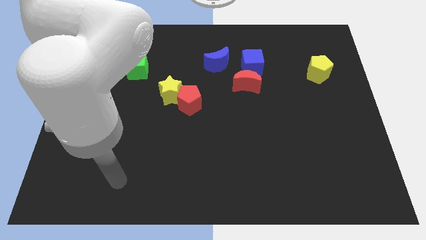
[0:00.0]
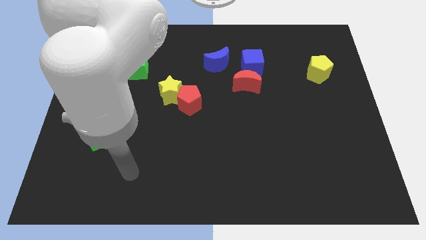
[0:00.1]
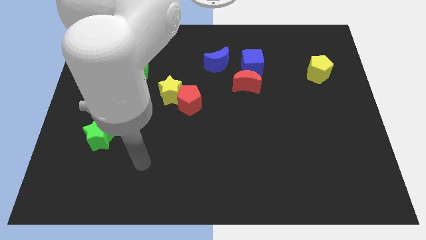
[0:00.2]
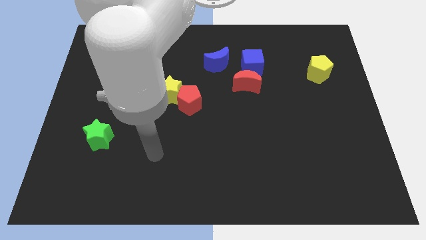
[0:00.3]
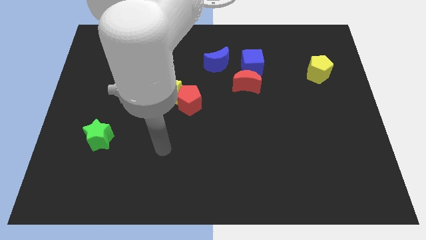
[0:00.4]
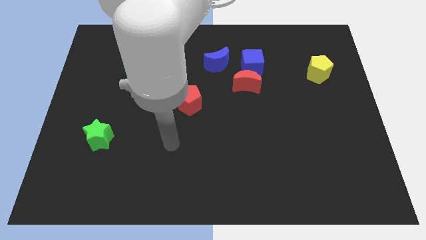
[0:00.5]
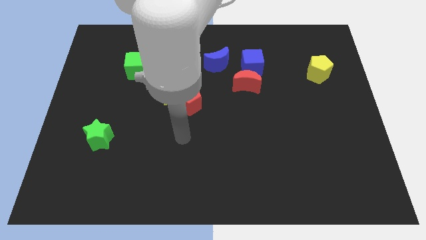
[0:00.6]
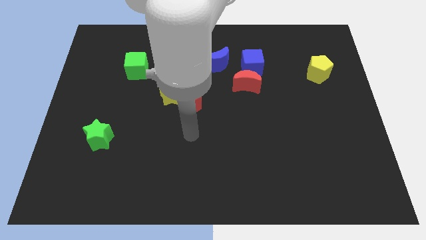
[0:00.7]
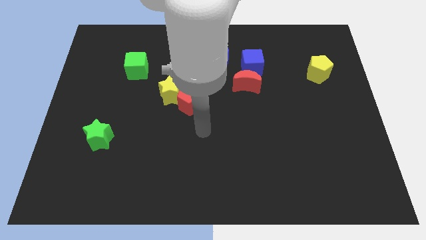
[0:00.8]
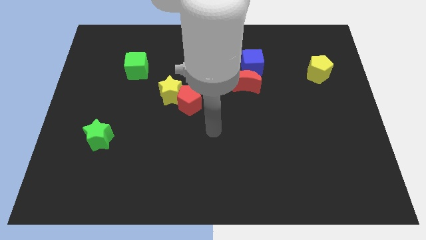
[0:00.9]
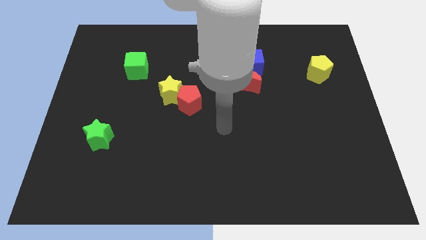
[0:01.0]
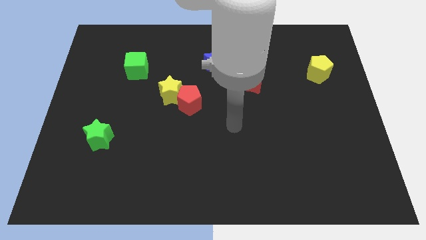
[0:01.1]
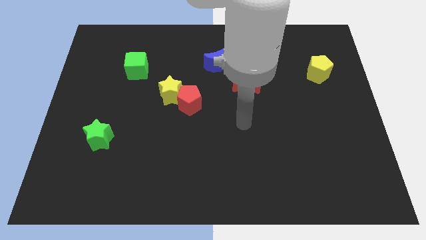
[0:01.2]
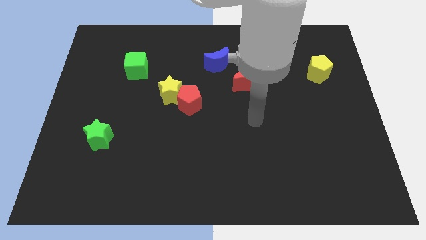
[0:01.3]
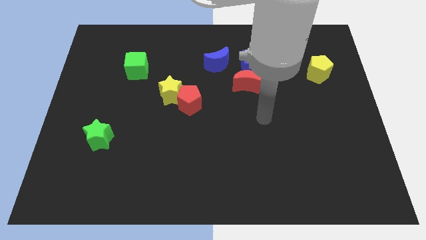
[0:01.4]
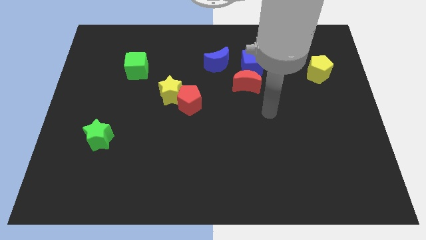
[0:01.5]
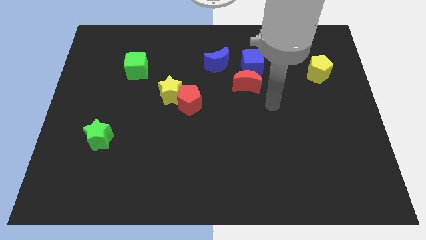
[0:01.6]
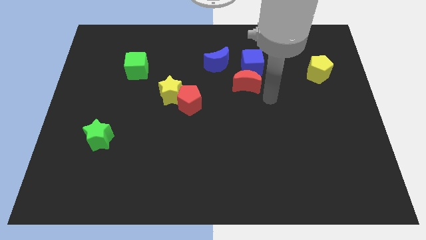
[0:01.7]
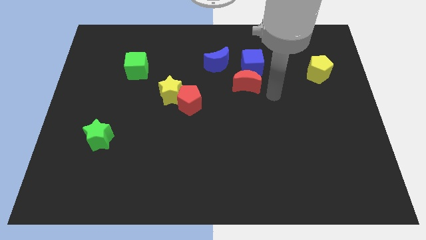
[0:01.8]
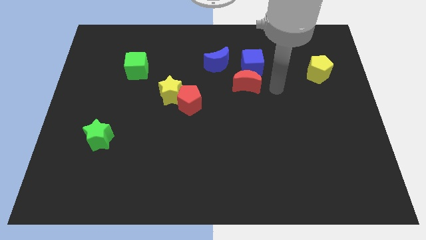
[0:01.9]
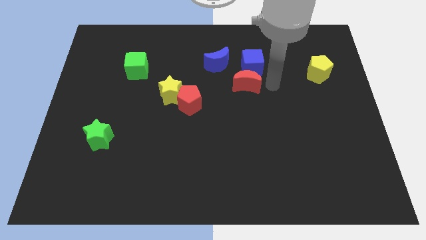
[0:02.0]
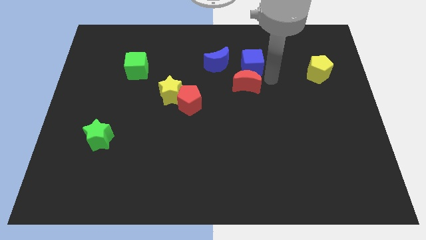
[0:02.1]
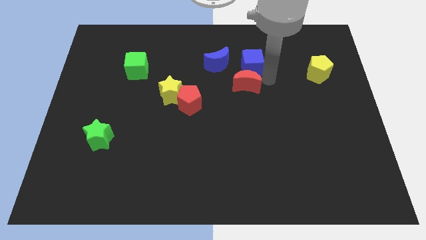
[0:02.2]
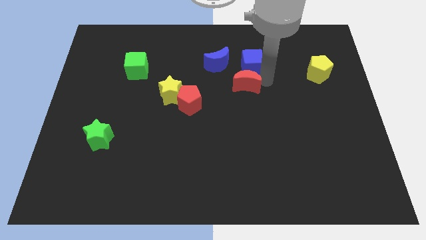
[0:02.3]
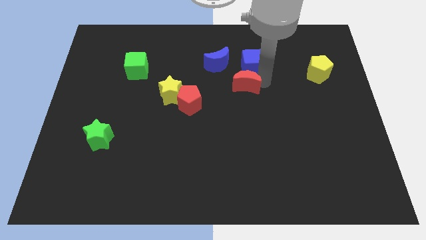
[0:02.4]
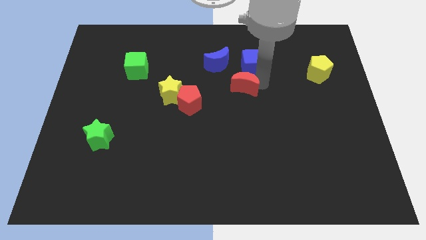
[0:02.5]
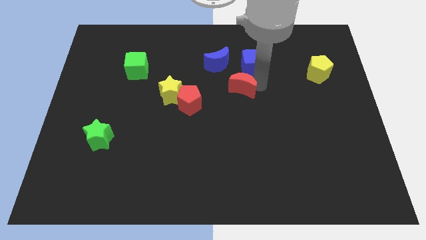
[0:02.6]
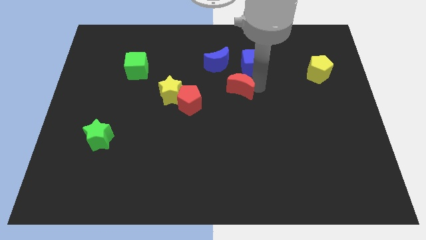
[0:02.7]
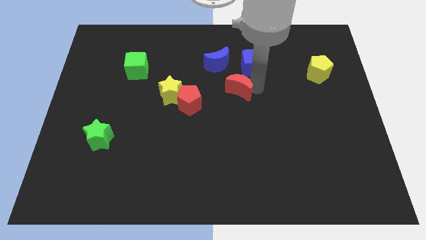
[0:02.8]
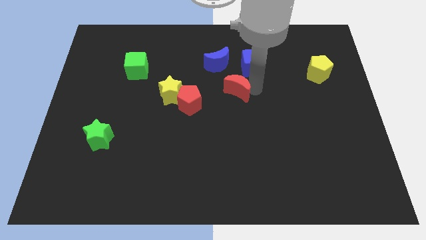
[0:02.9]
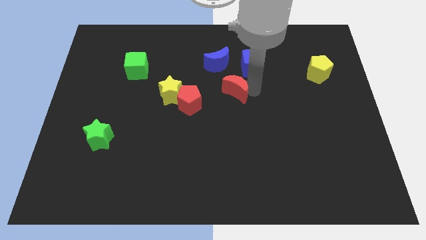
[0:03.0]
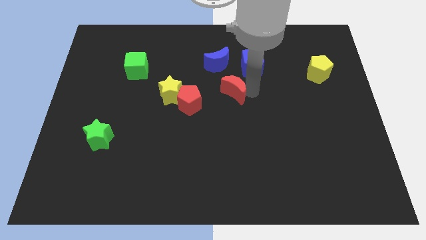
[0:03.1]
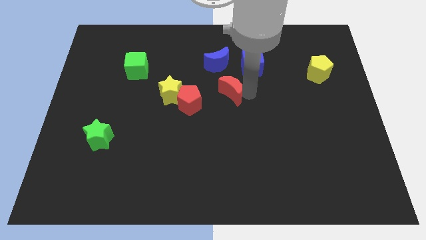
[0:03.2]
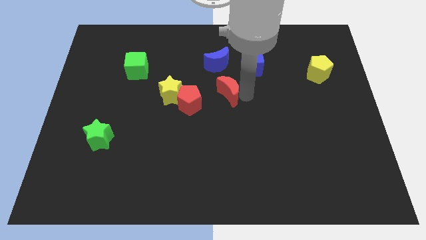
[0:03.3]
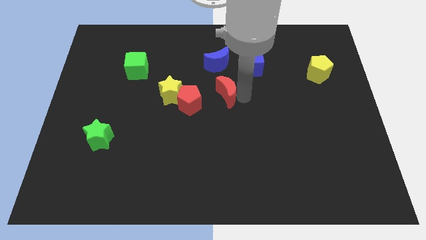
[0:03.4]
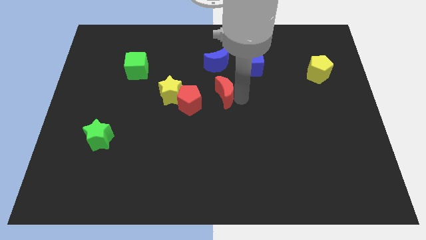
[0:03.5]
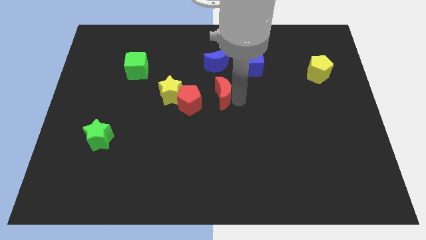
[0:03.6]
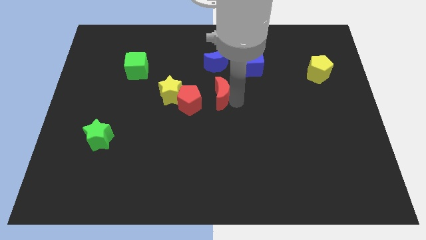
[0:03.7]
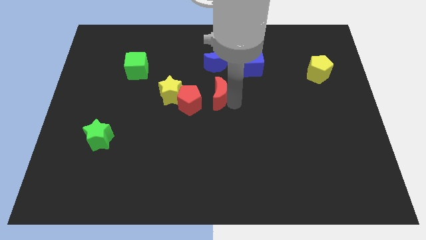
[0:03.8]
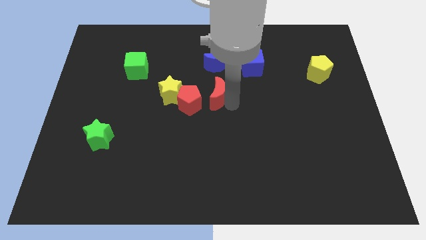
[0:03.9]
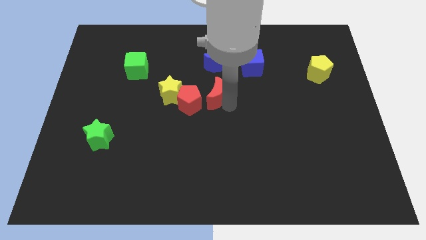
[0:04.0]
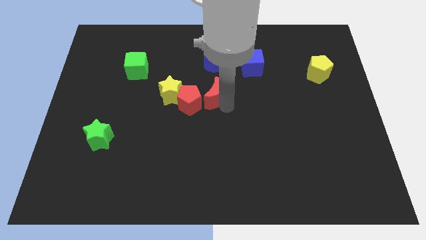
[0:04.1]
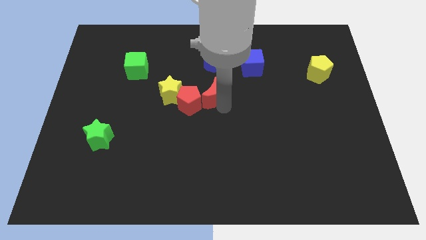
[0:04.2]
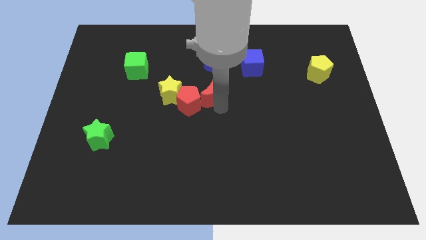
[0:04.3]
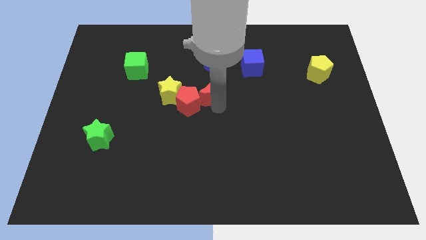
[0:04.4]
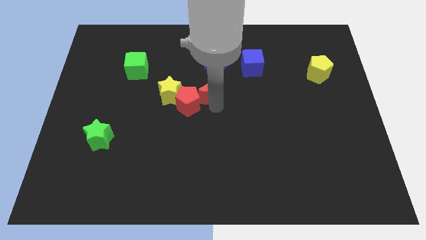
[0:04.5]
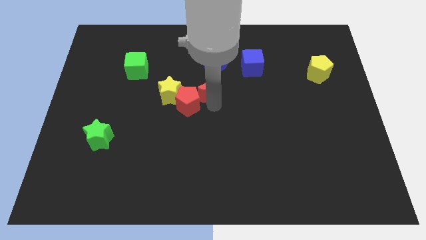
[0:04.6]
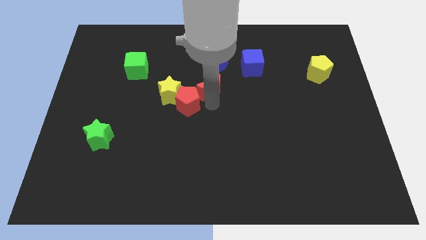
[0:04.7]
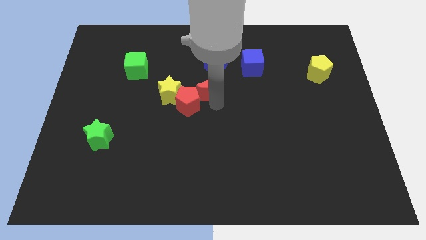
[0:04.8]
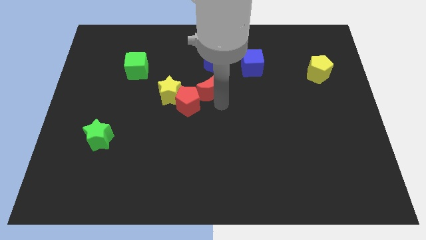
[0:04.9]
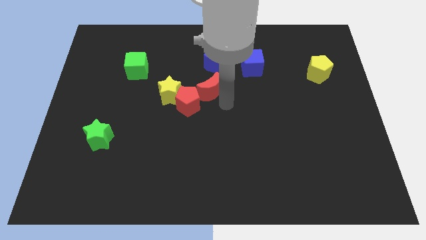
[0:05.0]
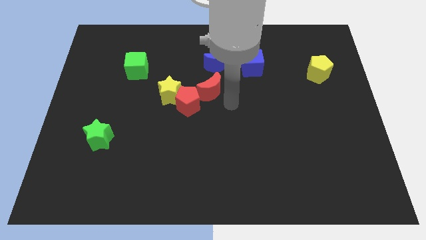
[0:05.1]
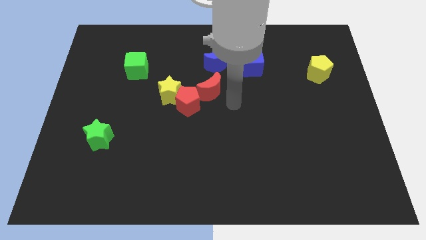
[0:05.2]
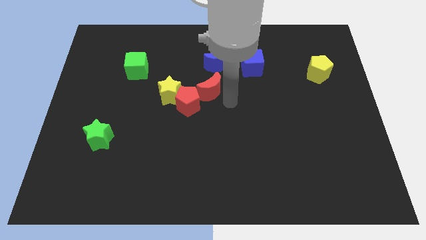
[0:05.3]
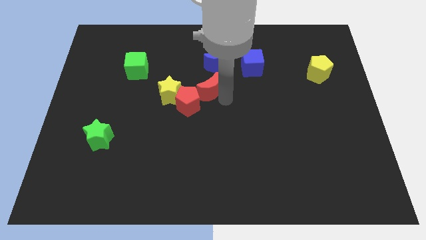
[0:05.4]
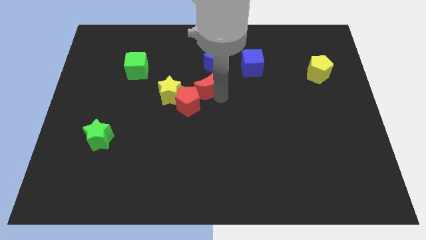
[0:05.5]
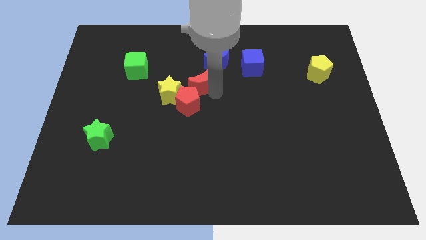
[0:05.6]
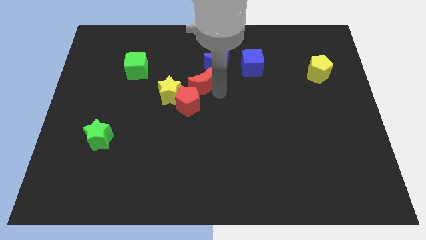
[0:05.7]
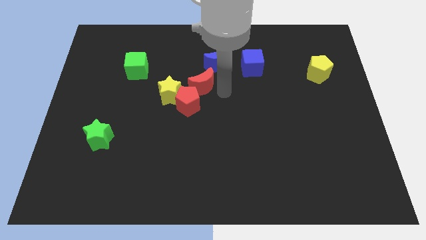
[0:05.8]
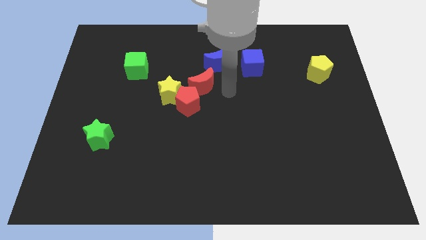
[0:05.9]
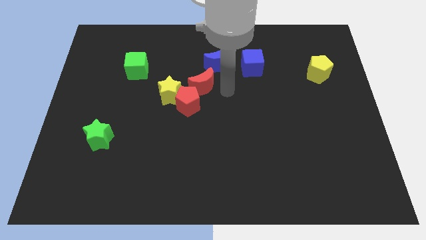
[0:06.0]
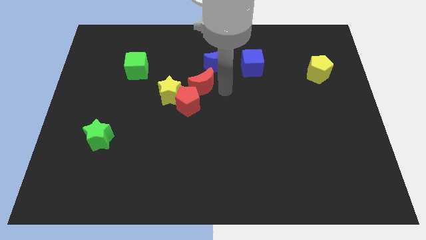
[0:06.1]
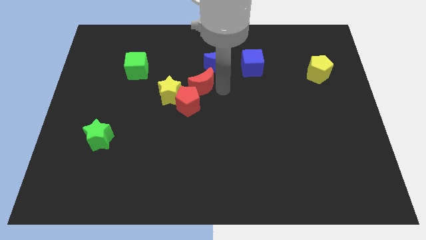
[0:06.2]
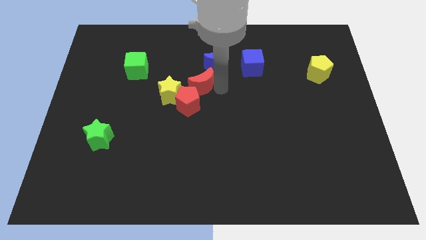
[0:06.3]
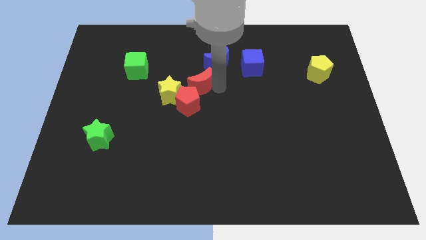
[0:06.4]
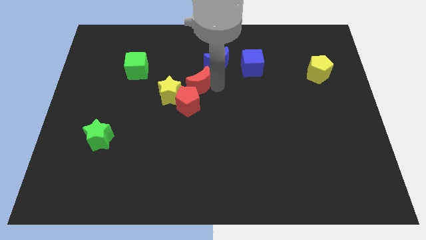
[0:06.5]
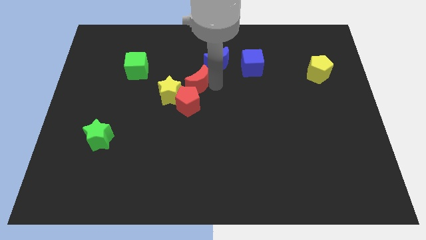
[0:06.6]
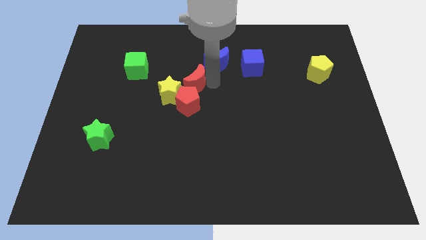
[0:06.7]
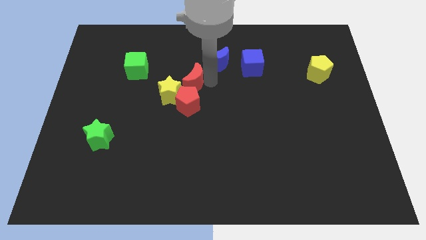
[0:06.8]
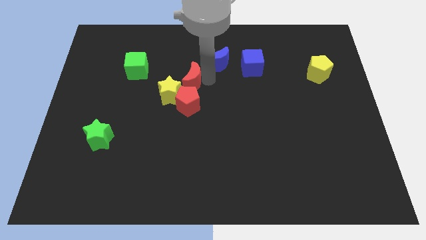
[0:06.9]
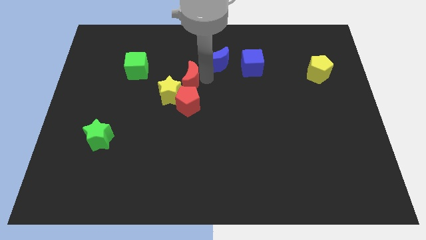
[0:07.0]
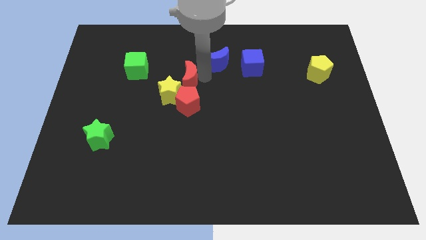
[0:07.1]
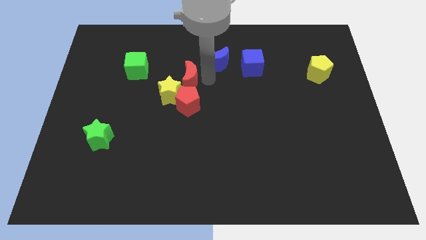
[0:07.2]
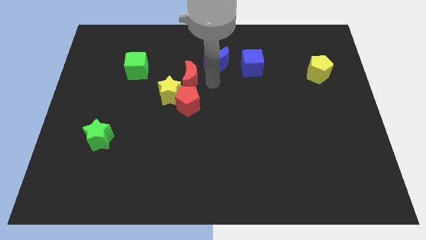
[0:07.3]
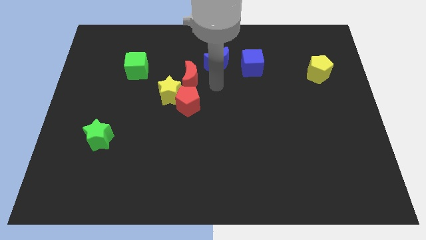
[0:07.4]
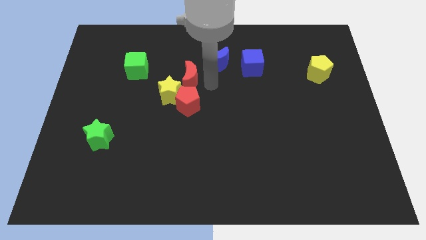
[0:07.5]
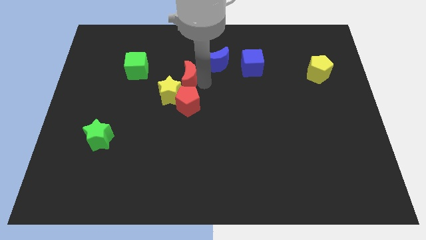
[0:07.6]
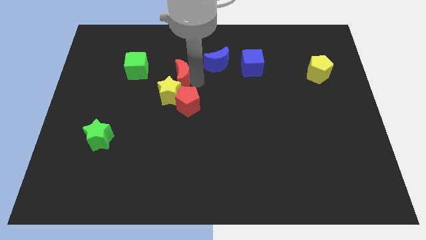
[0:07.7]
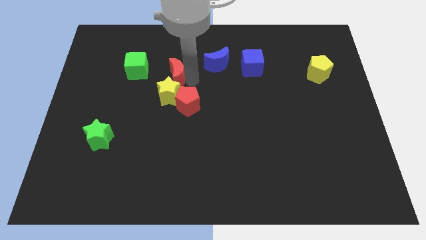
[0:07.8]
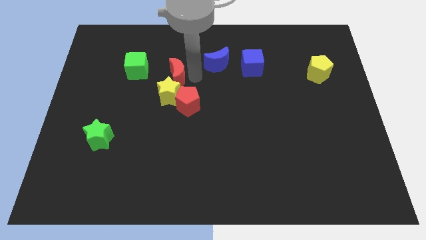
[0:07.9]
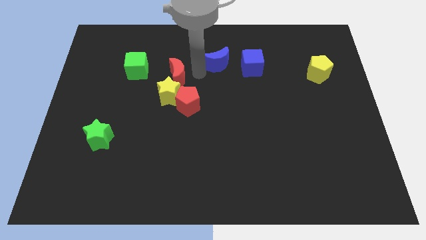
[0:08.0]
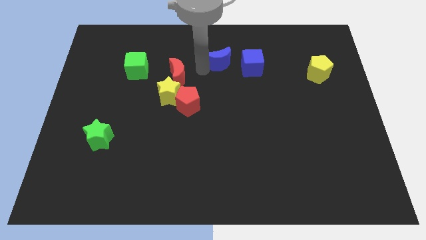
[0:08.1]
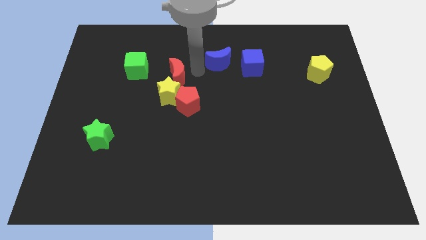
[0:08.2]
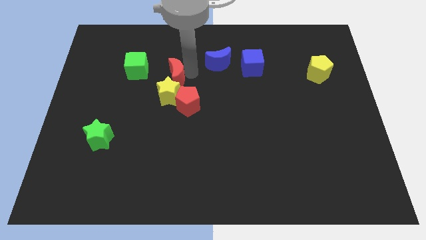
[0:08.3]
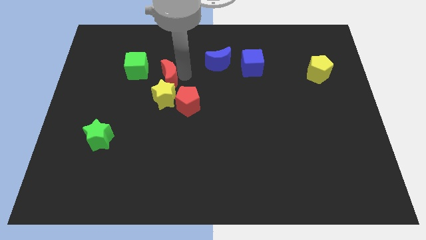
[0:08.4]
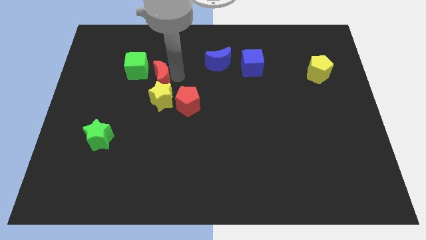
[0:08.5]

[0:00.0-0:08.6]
push the red moon left

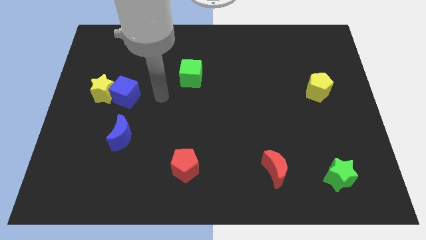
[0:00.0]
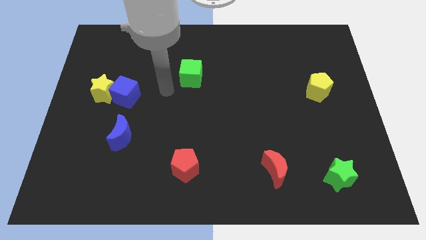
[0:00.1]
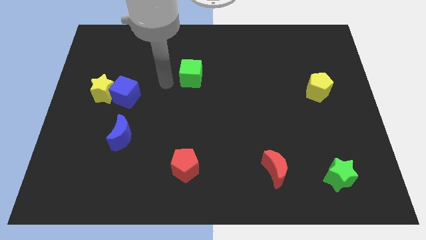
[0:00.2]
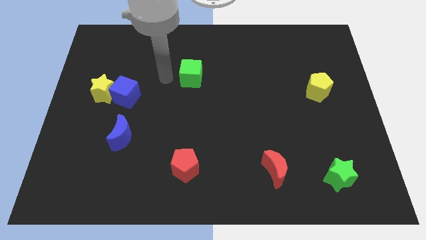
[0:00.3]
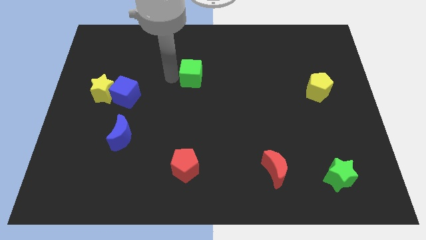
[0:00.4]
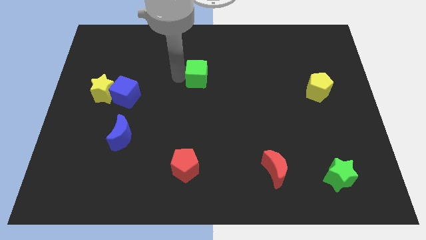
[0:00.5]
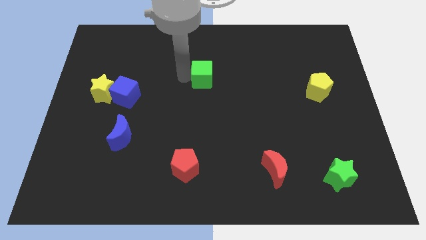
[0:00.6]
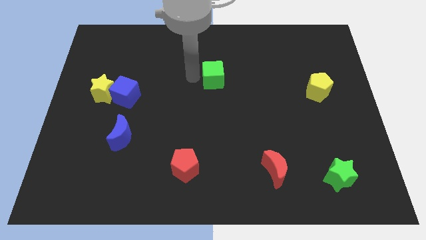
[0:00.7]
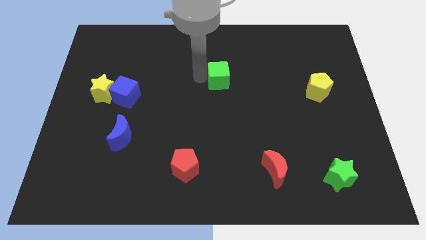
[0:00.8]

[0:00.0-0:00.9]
slightly move the green cube to the right
